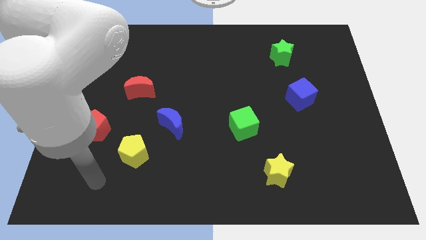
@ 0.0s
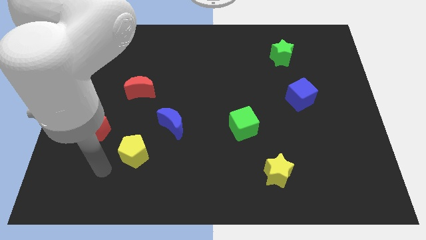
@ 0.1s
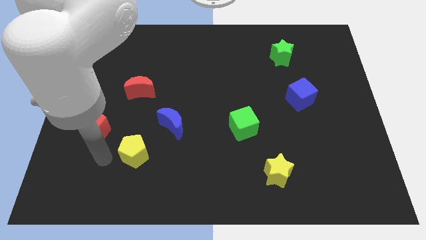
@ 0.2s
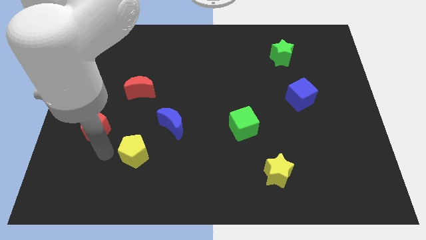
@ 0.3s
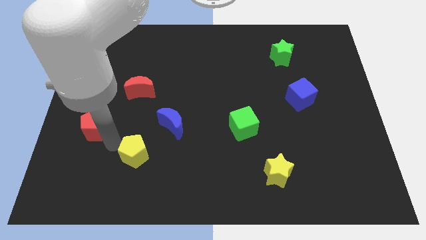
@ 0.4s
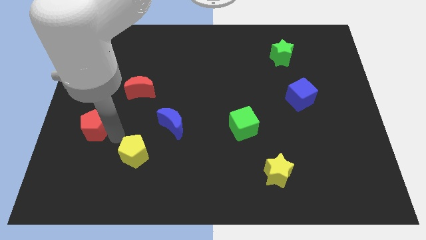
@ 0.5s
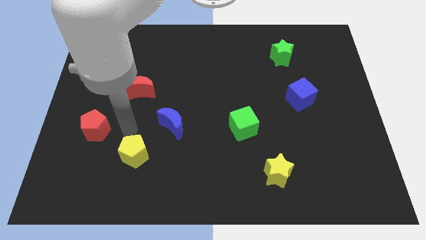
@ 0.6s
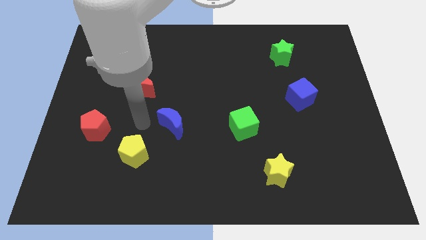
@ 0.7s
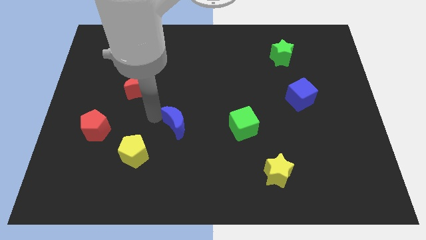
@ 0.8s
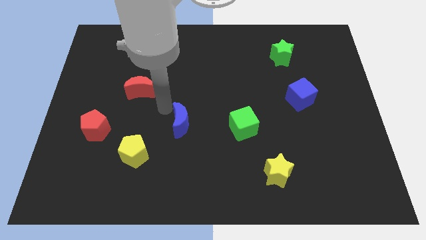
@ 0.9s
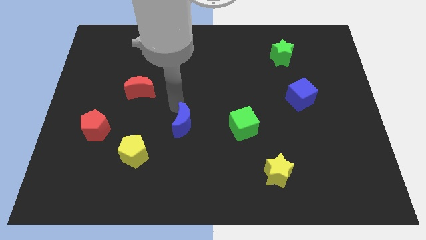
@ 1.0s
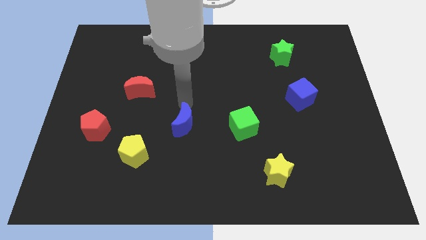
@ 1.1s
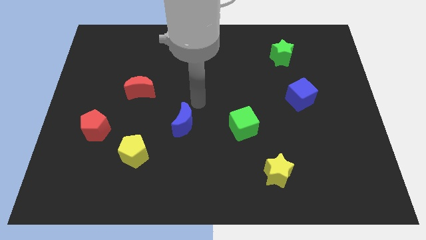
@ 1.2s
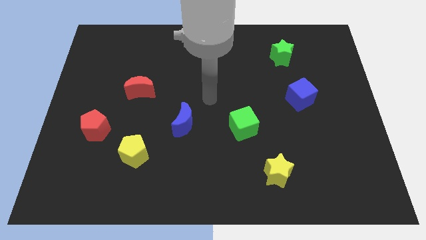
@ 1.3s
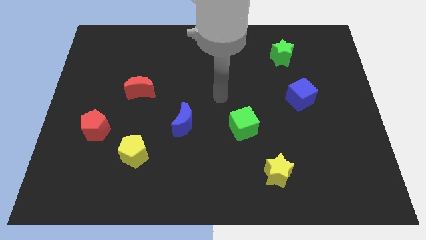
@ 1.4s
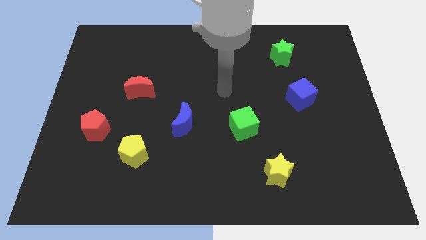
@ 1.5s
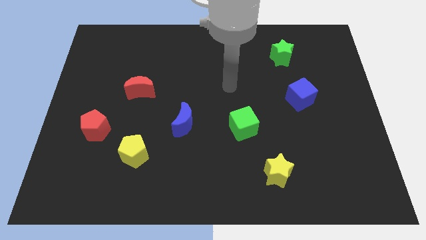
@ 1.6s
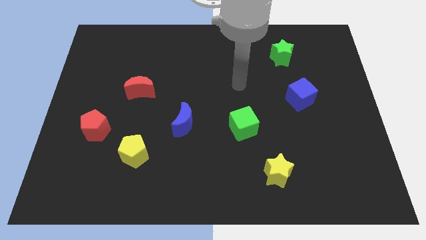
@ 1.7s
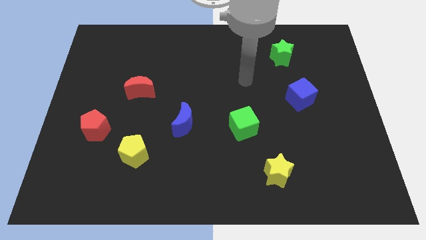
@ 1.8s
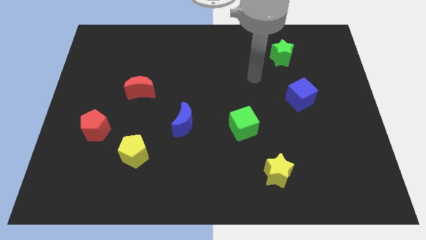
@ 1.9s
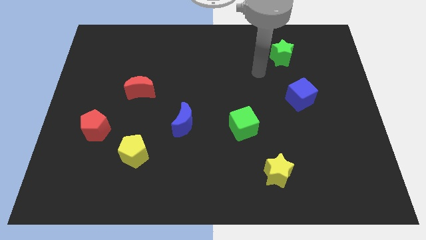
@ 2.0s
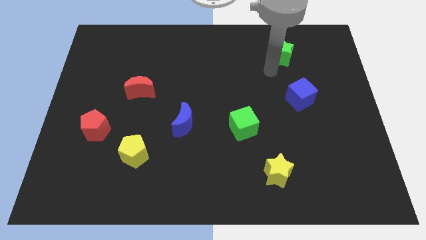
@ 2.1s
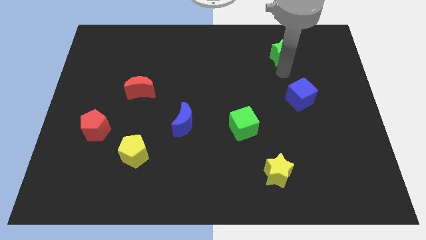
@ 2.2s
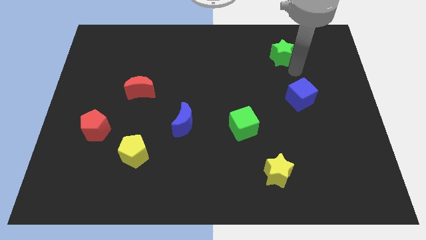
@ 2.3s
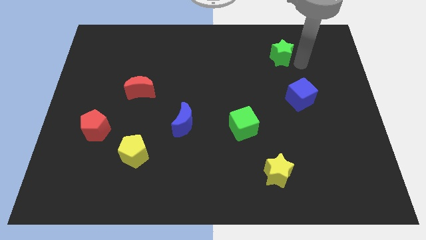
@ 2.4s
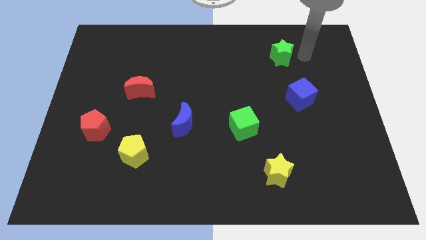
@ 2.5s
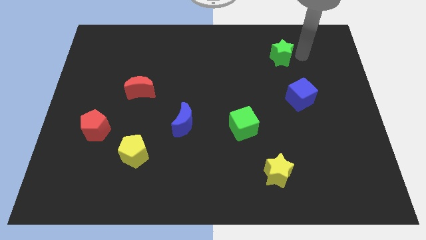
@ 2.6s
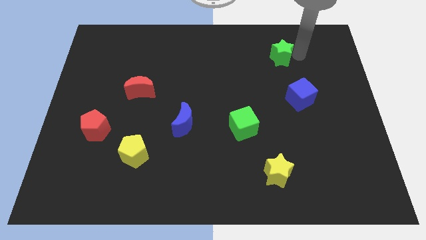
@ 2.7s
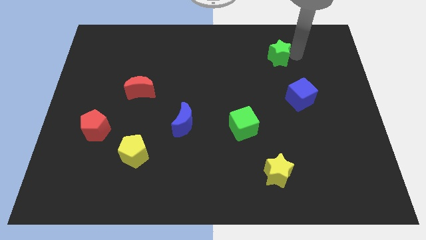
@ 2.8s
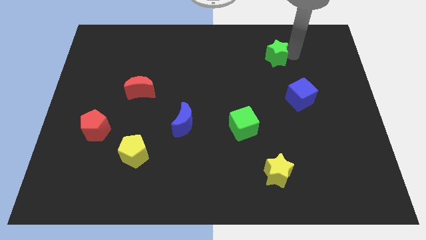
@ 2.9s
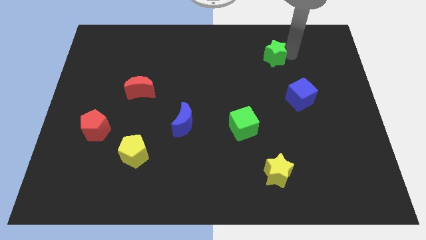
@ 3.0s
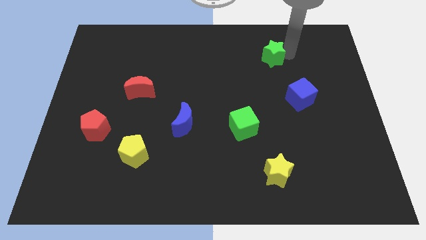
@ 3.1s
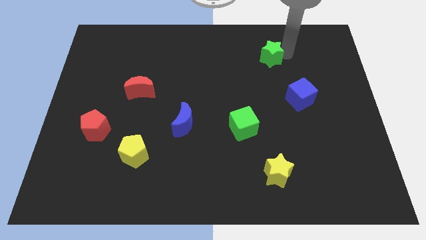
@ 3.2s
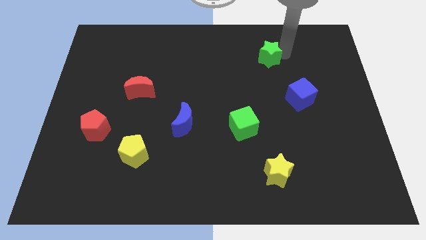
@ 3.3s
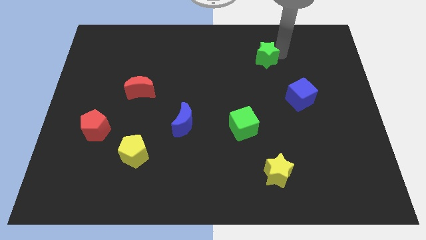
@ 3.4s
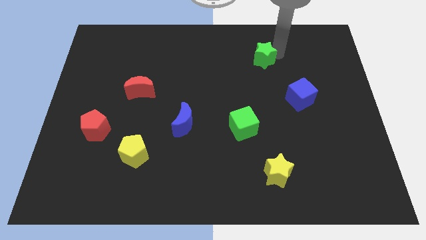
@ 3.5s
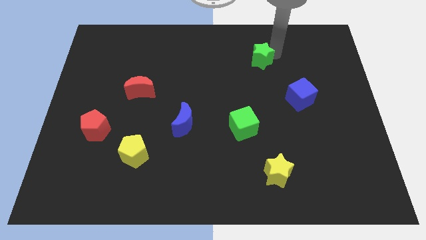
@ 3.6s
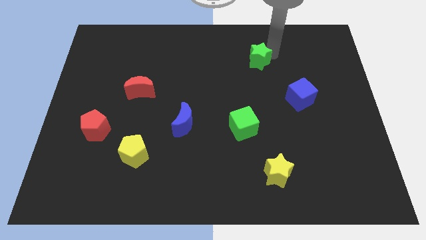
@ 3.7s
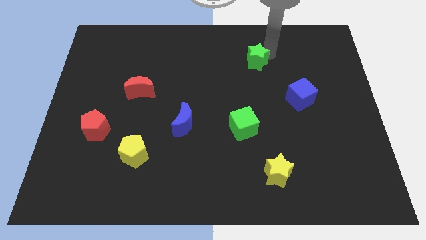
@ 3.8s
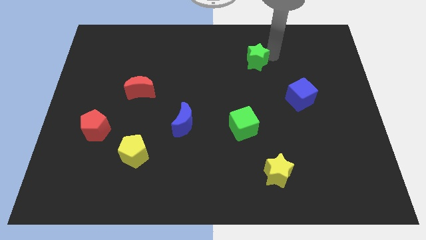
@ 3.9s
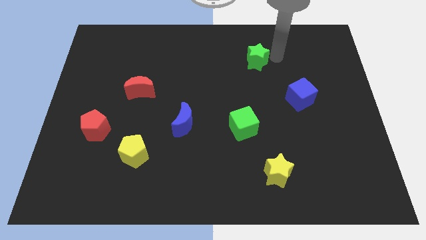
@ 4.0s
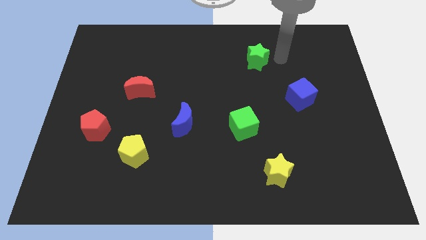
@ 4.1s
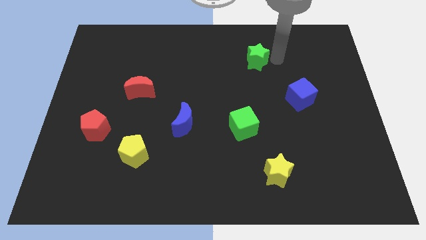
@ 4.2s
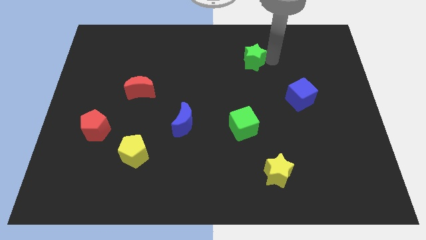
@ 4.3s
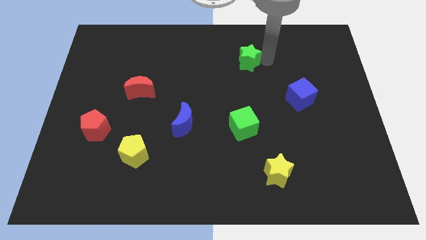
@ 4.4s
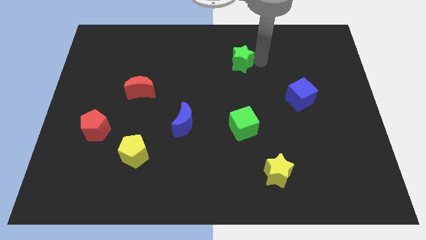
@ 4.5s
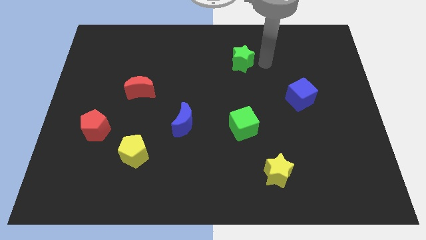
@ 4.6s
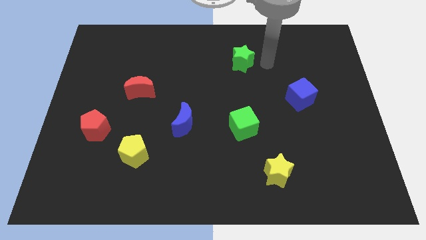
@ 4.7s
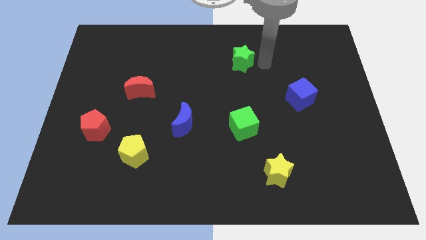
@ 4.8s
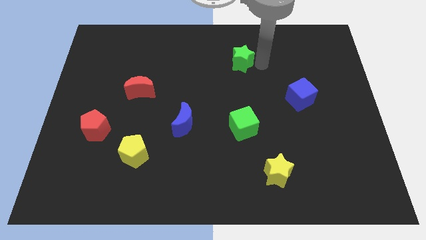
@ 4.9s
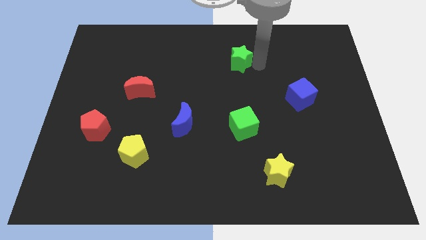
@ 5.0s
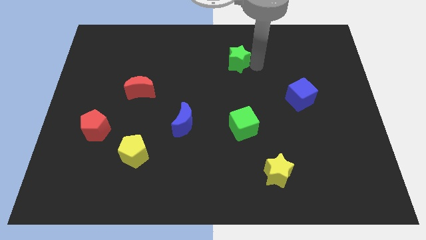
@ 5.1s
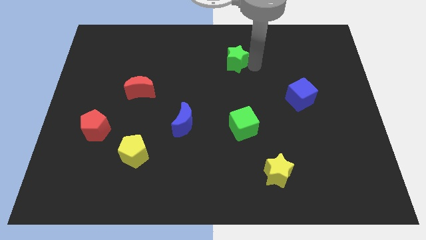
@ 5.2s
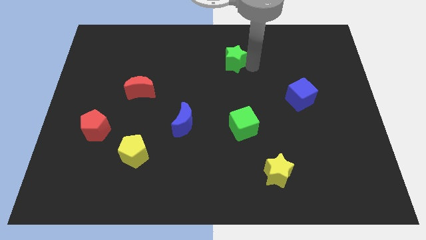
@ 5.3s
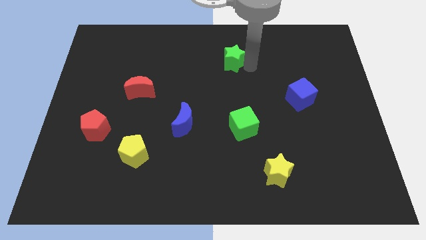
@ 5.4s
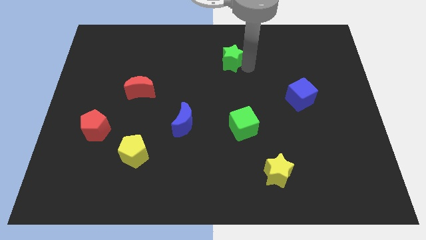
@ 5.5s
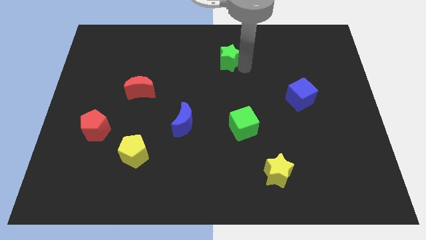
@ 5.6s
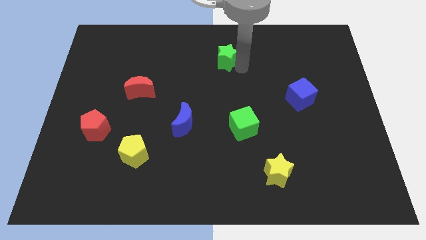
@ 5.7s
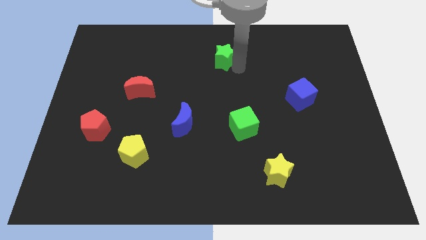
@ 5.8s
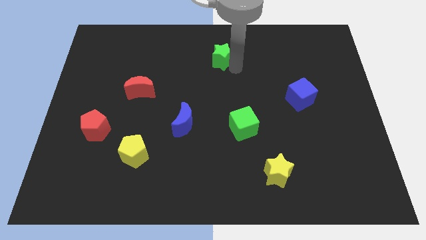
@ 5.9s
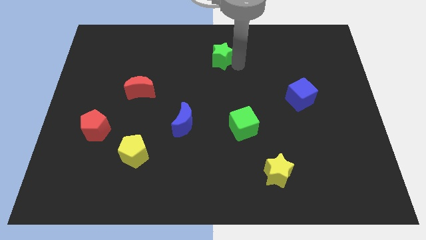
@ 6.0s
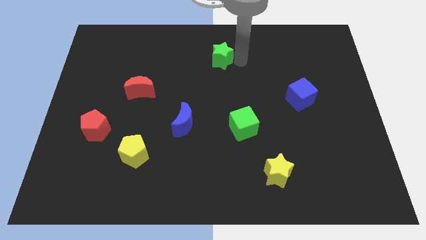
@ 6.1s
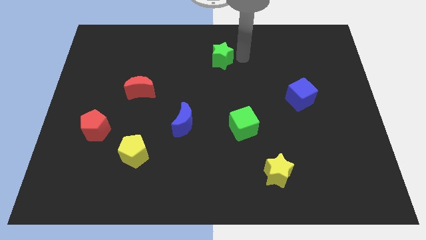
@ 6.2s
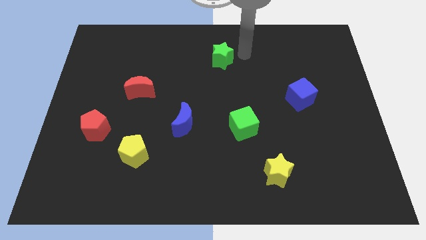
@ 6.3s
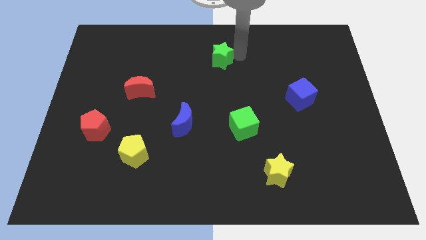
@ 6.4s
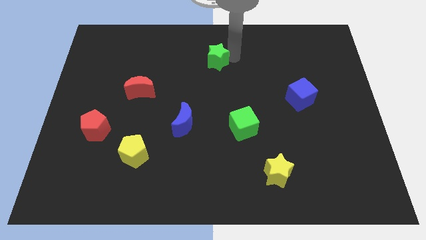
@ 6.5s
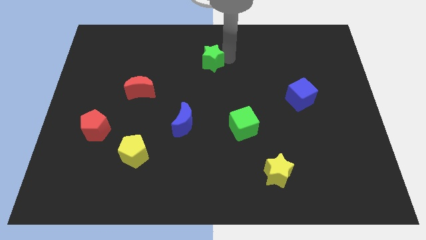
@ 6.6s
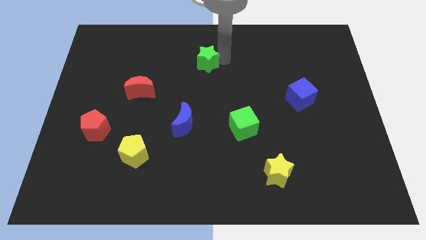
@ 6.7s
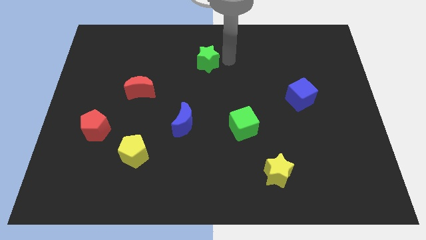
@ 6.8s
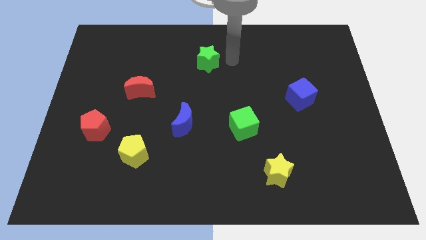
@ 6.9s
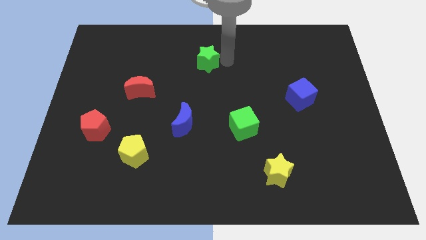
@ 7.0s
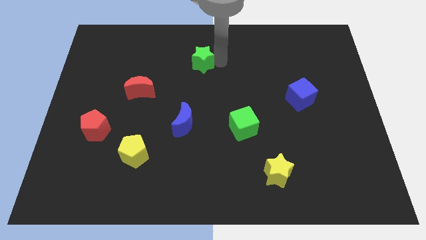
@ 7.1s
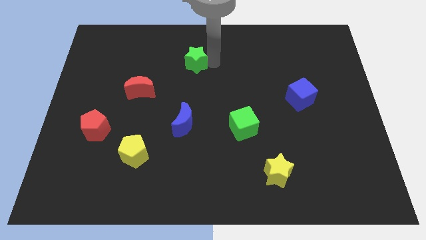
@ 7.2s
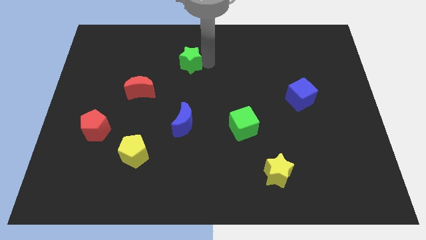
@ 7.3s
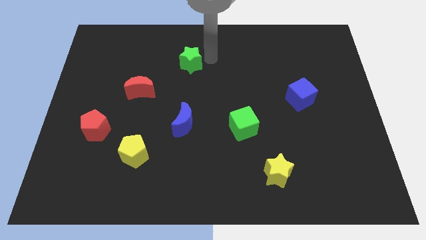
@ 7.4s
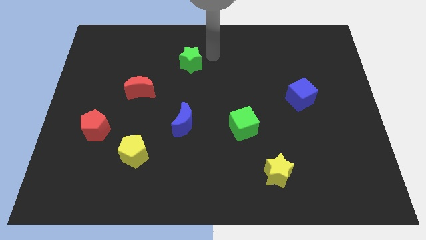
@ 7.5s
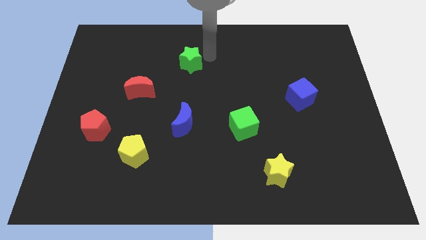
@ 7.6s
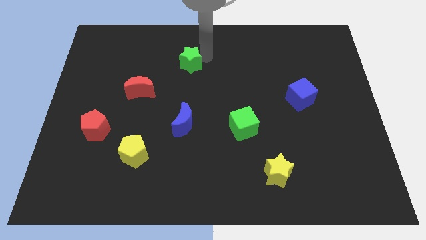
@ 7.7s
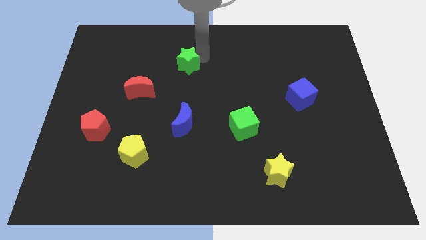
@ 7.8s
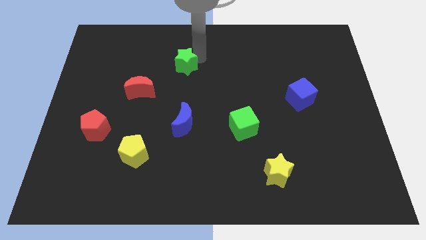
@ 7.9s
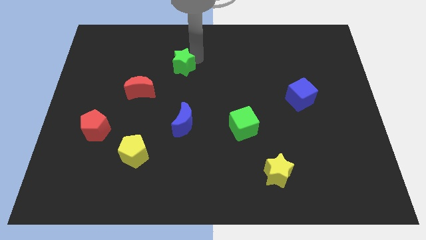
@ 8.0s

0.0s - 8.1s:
slide the green star to the top right of the red moon
